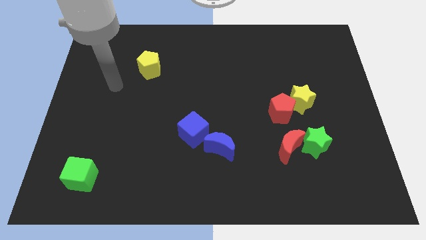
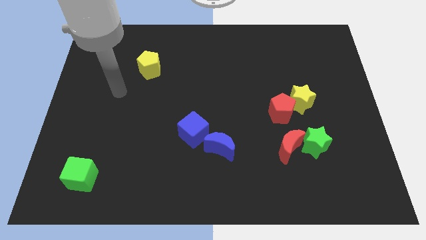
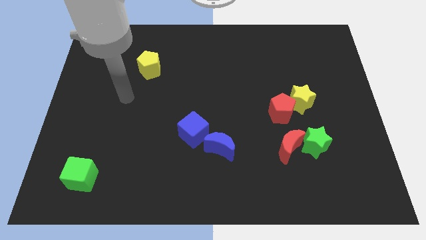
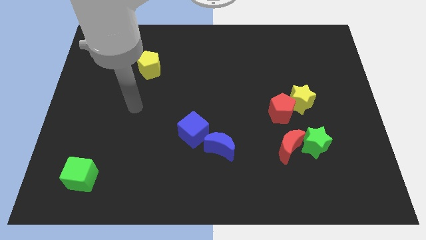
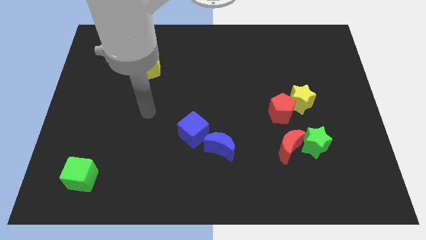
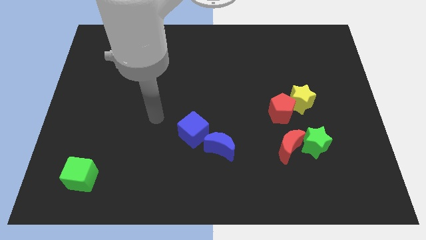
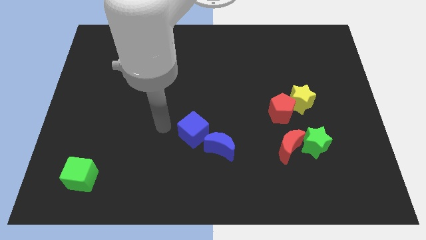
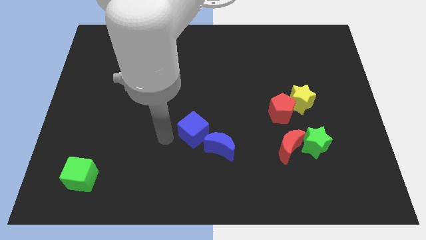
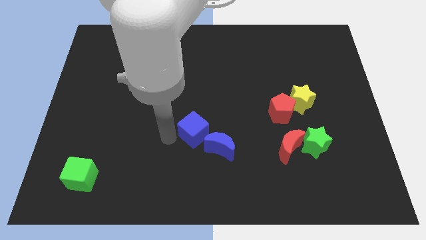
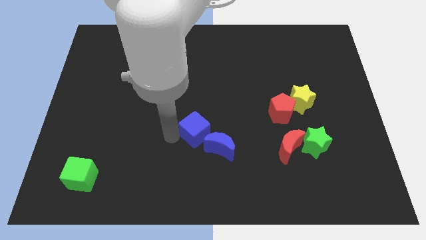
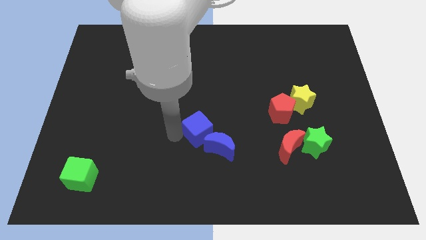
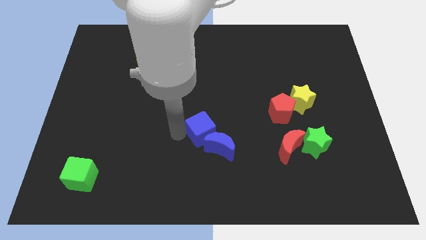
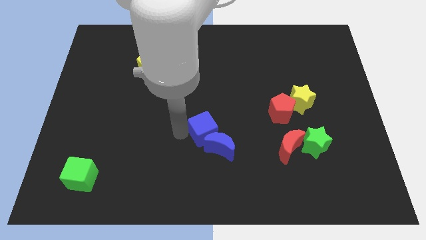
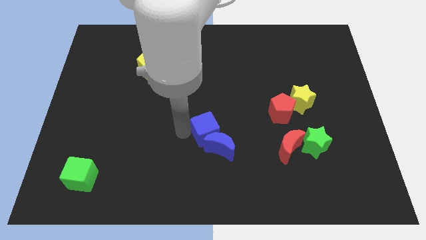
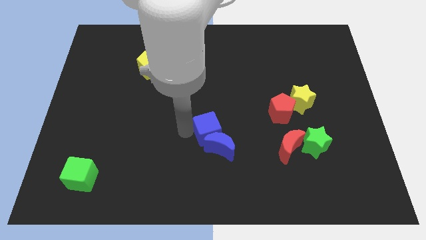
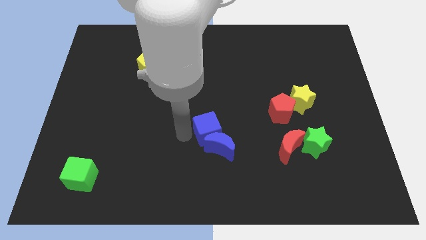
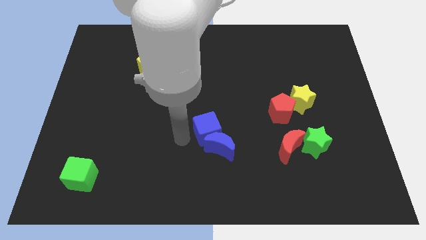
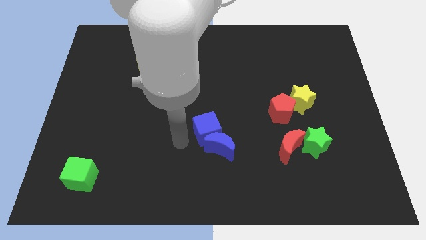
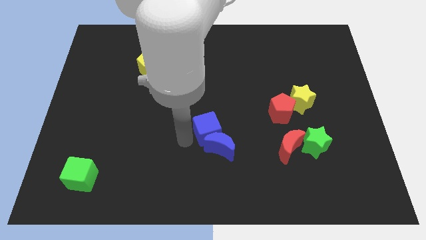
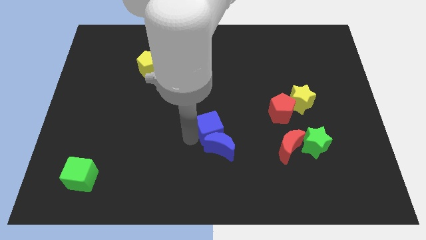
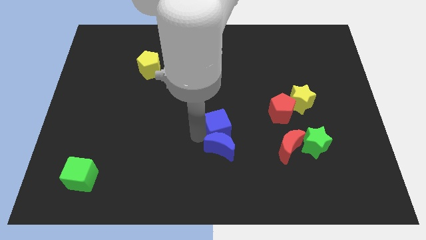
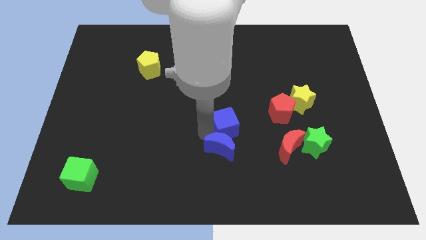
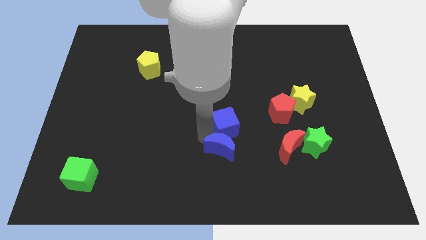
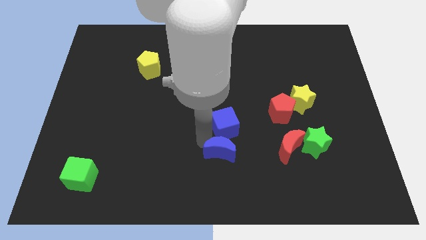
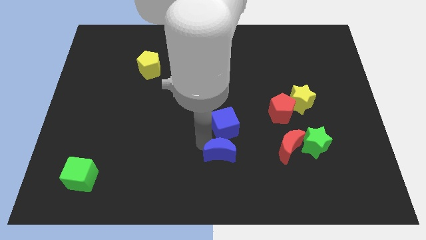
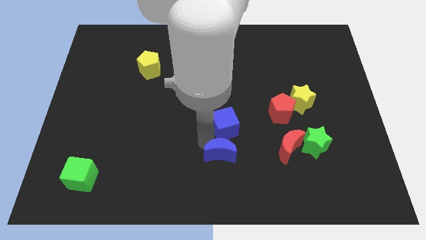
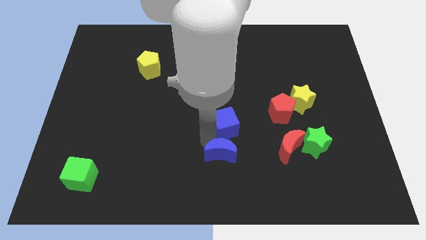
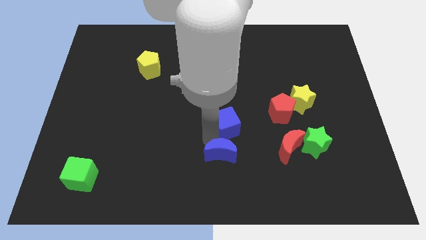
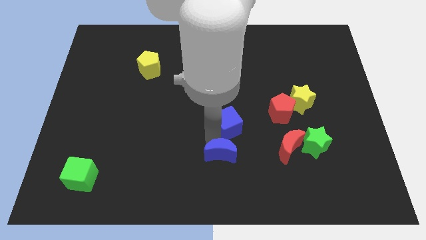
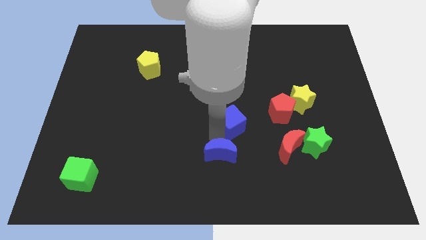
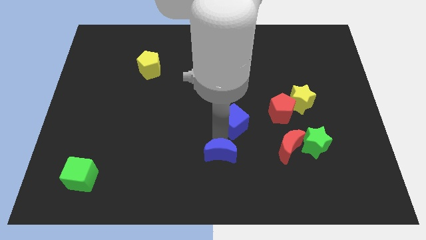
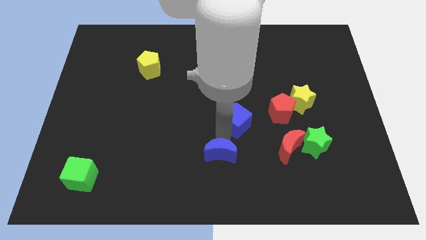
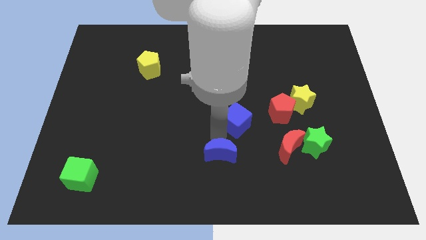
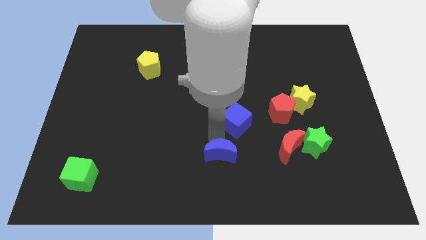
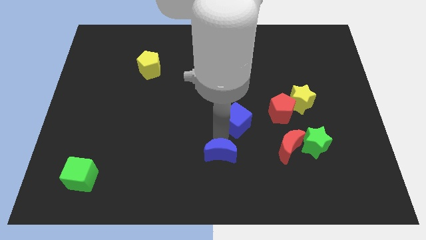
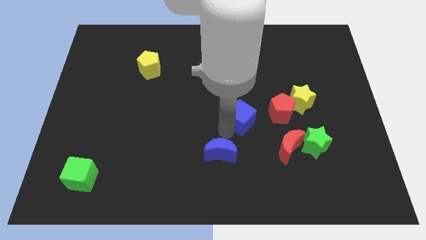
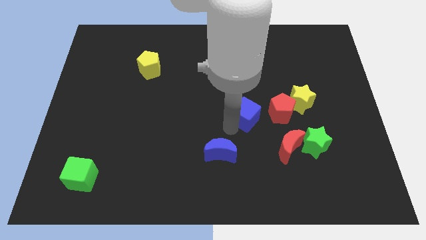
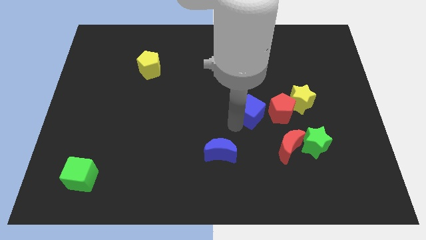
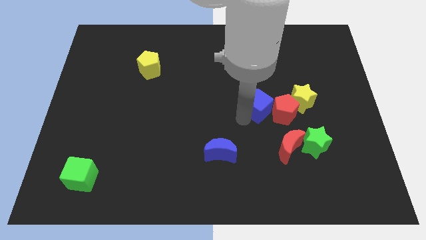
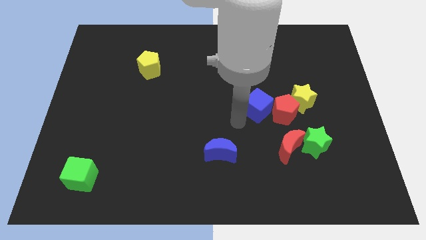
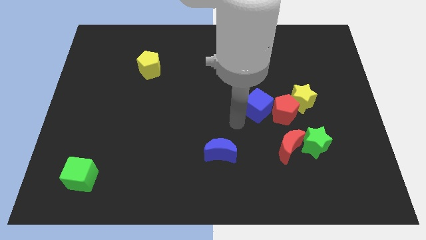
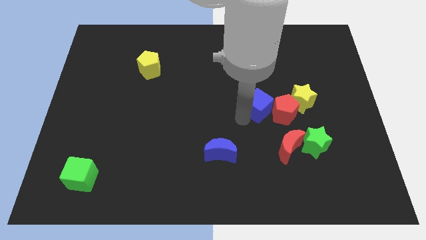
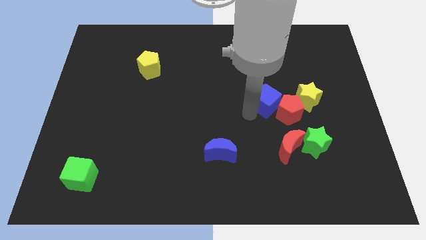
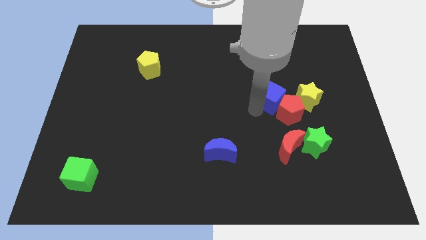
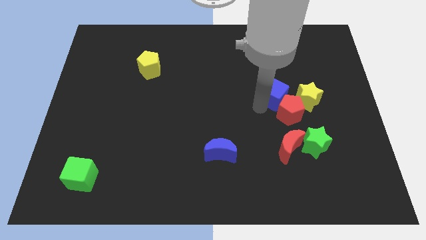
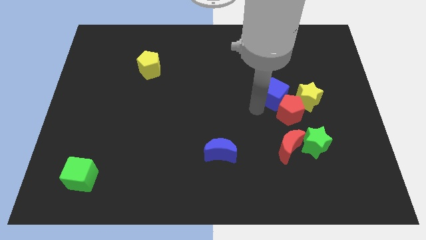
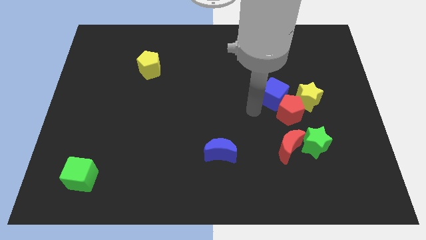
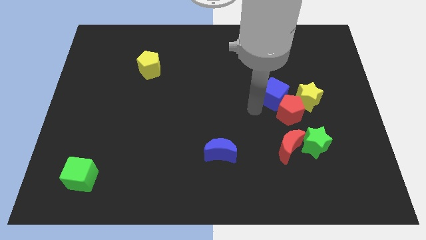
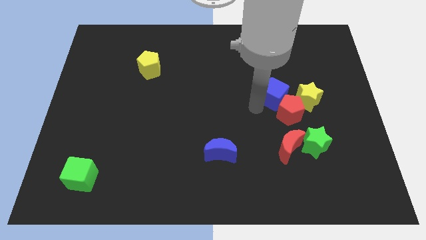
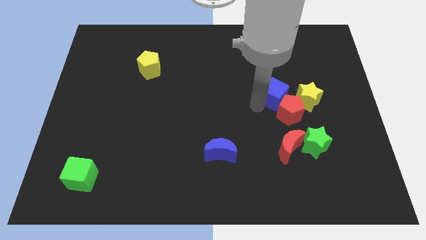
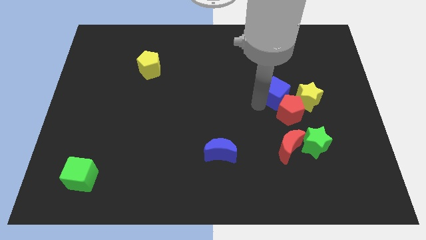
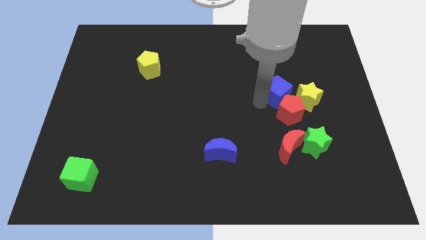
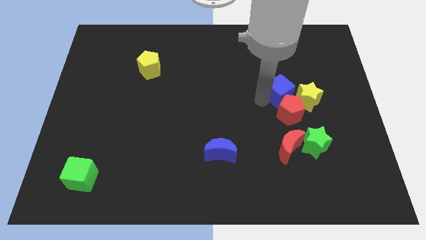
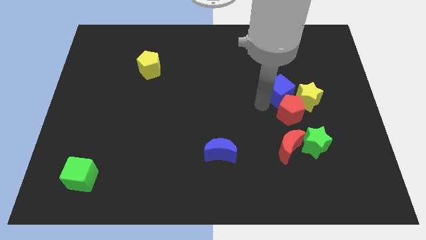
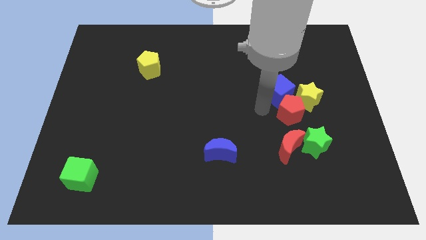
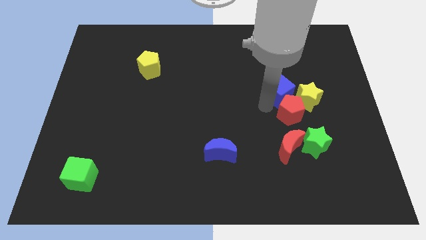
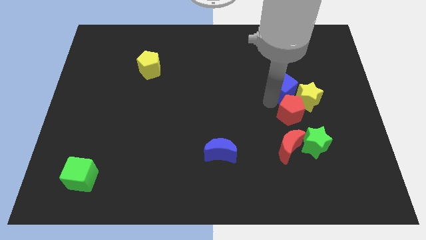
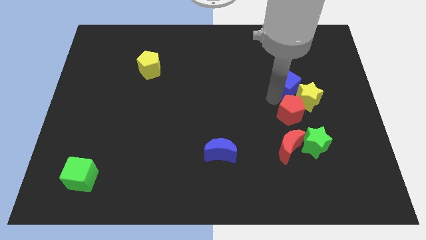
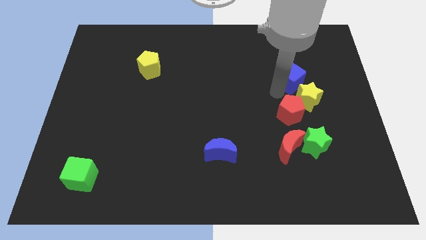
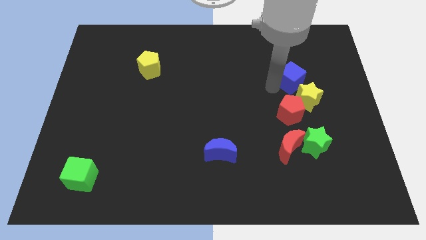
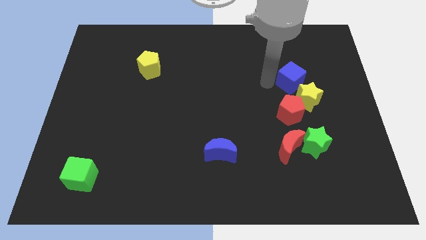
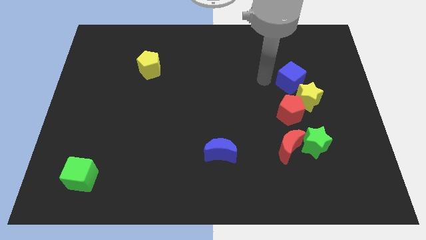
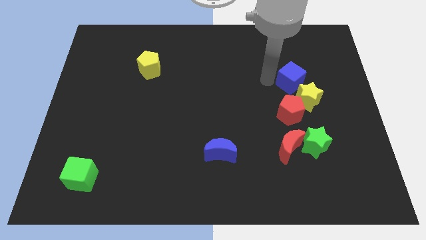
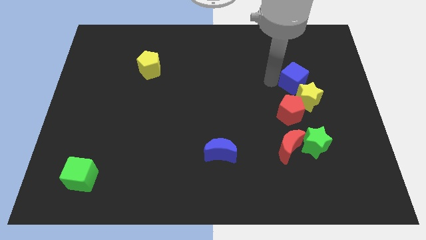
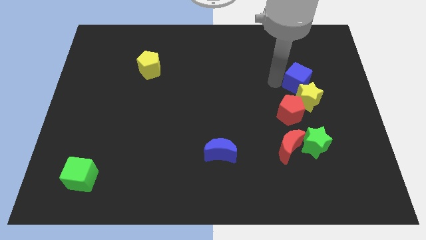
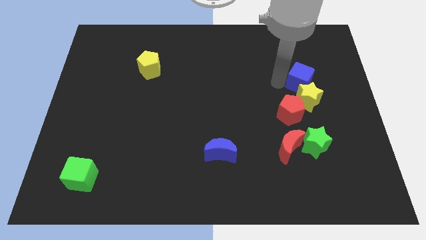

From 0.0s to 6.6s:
move the blue cube to the top right of the yellow star

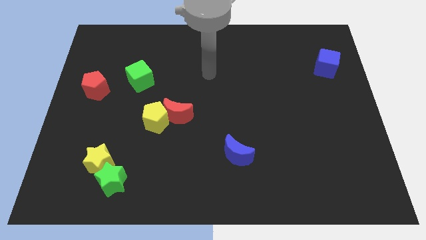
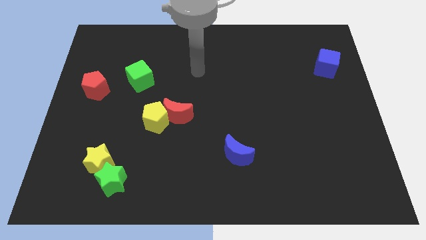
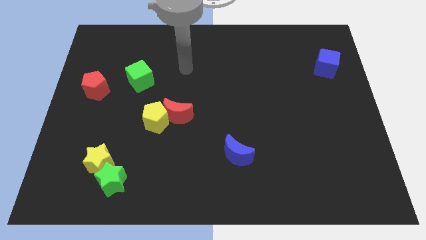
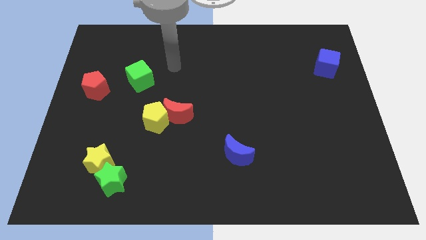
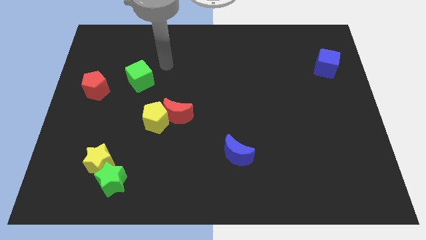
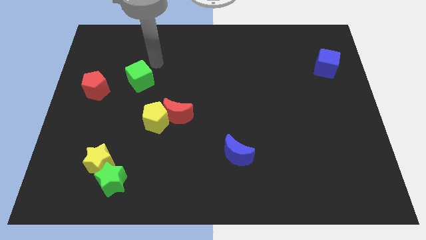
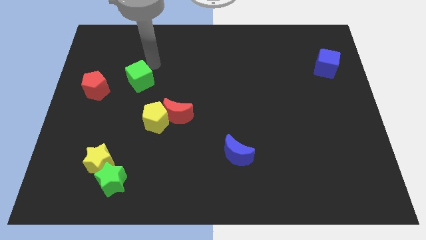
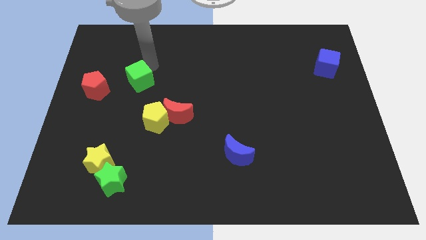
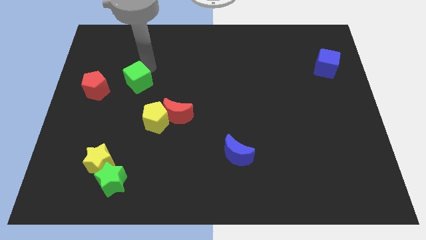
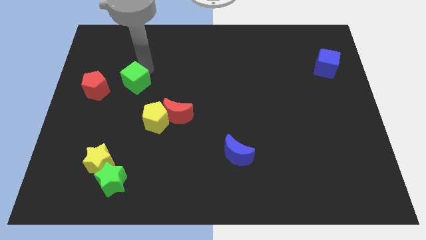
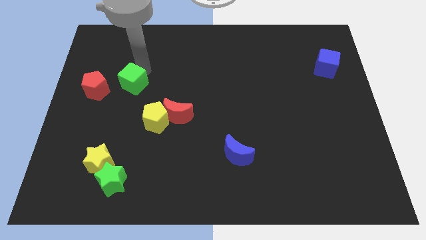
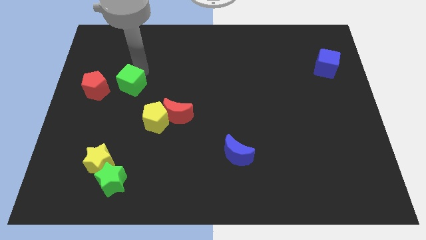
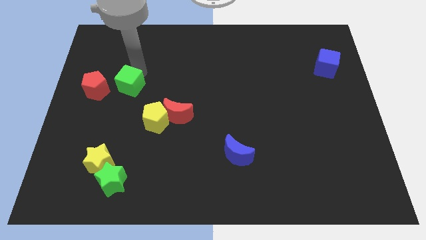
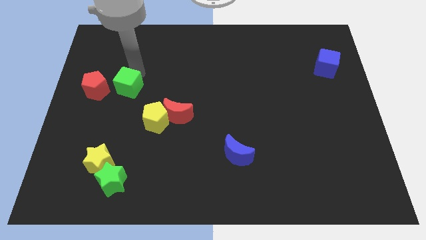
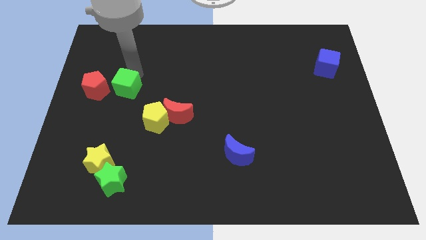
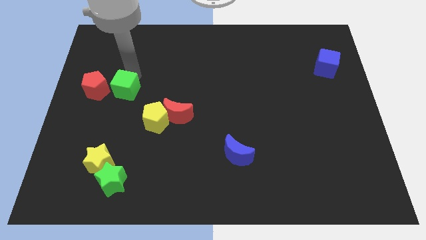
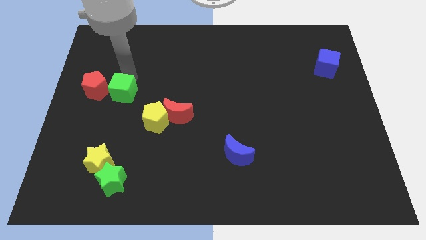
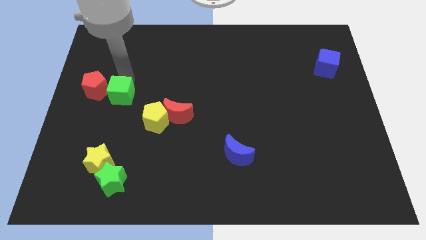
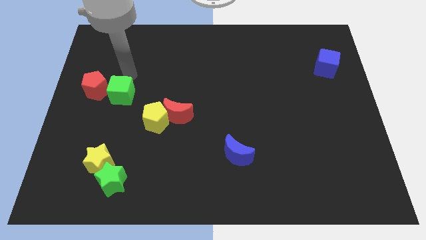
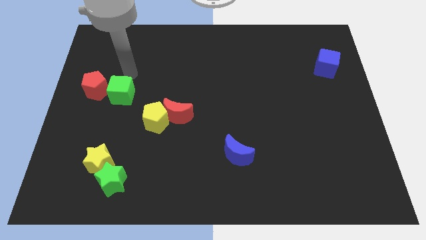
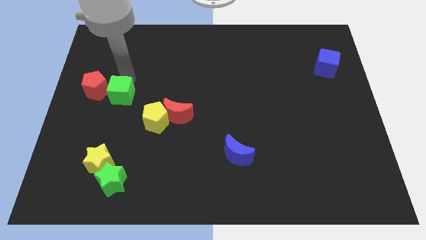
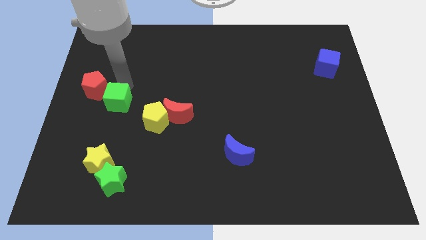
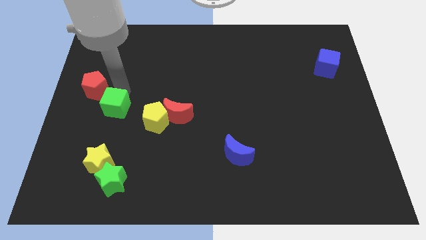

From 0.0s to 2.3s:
slide the green cube to the top side of the yellow star
